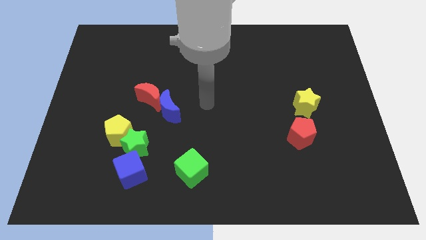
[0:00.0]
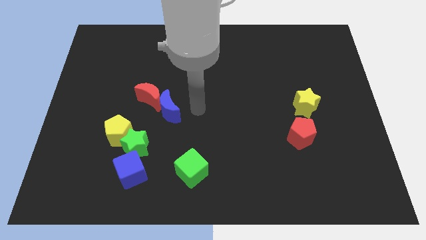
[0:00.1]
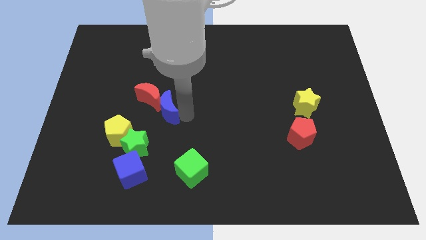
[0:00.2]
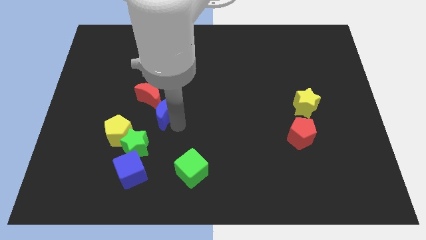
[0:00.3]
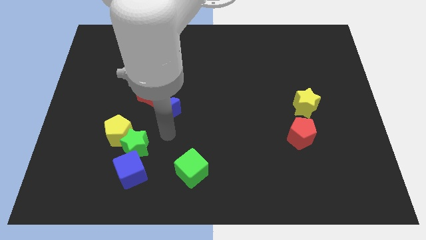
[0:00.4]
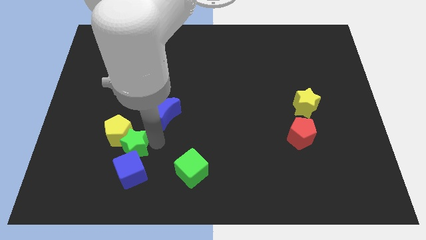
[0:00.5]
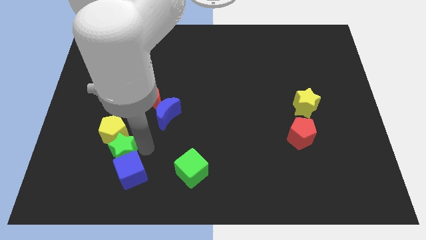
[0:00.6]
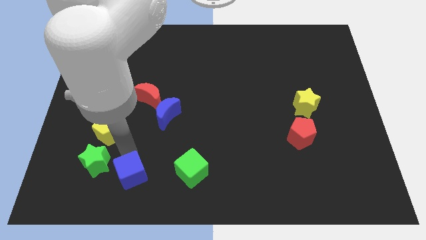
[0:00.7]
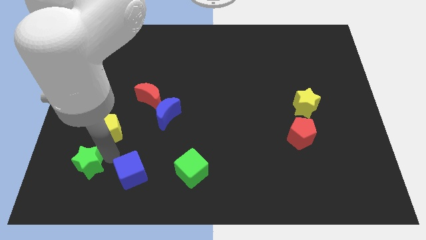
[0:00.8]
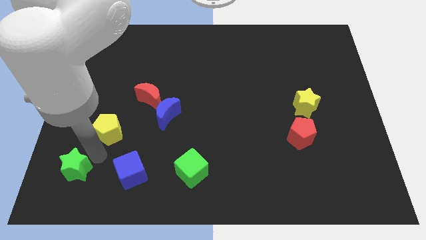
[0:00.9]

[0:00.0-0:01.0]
separate the yellow pentagon from the green star

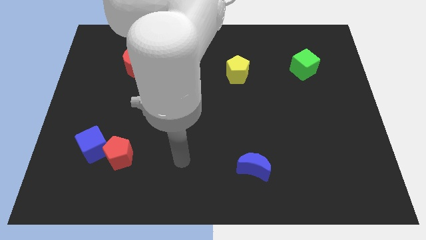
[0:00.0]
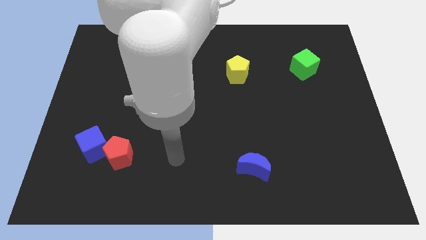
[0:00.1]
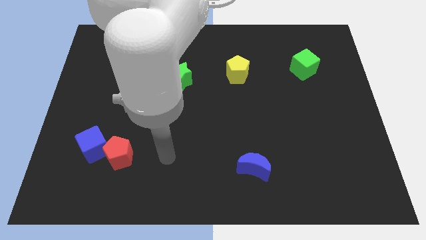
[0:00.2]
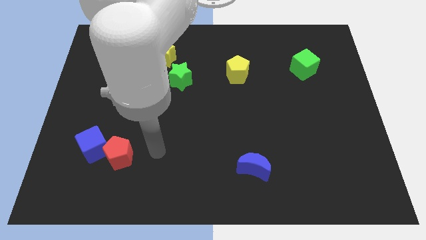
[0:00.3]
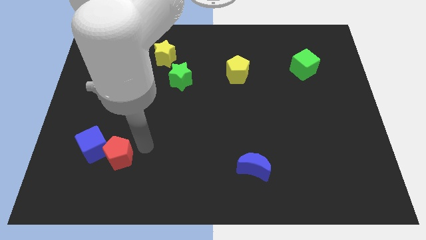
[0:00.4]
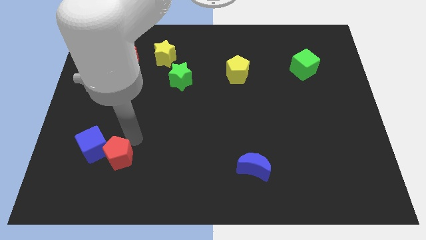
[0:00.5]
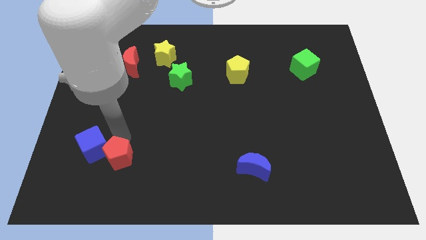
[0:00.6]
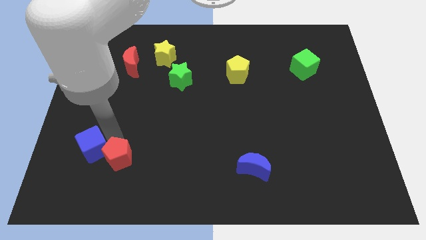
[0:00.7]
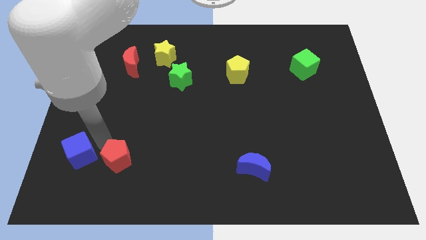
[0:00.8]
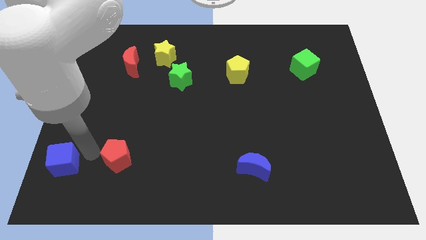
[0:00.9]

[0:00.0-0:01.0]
move the red pentagon away from the blue cube

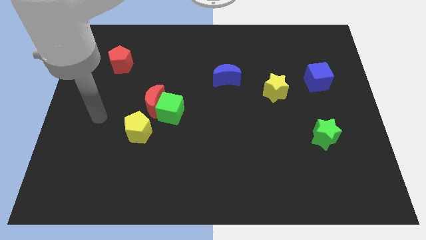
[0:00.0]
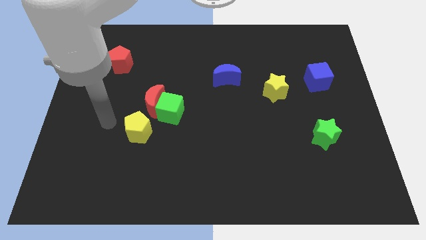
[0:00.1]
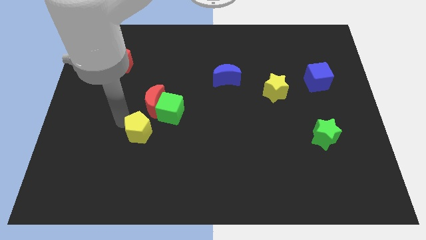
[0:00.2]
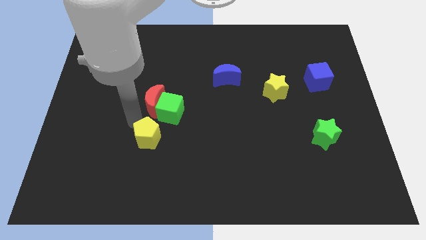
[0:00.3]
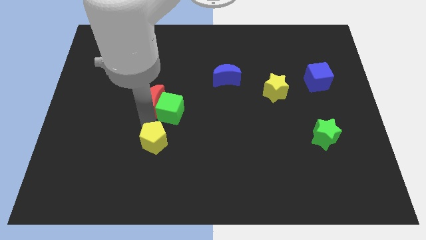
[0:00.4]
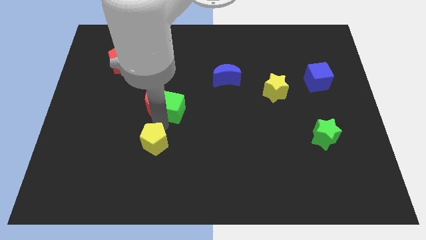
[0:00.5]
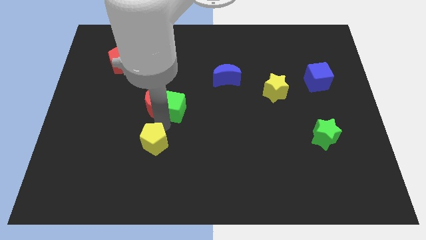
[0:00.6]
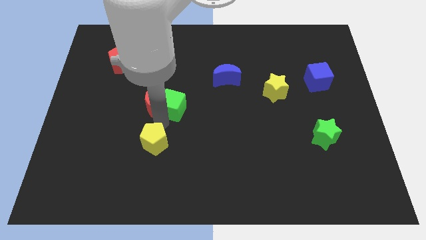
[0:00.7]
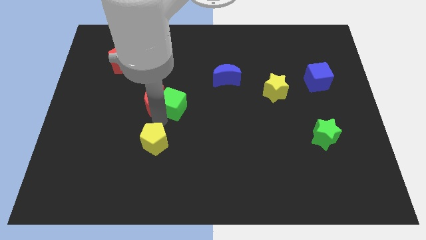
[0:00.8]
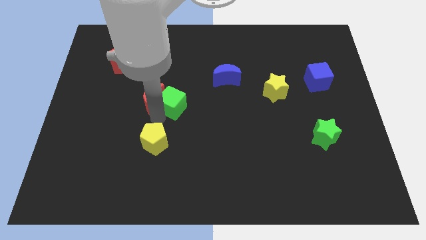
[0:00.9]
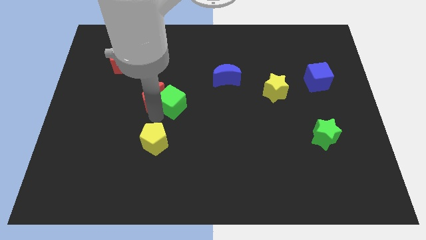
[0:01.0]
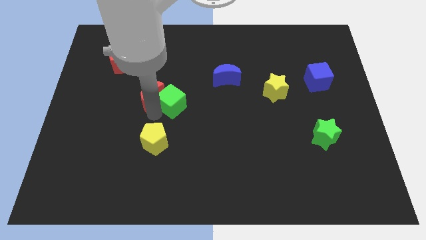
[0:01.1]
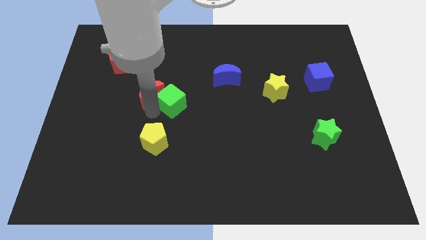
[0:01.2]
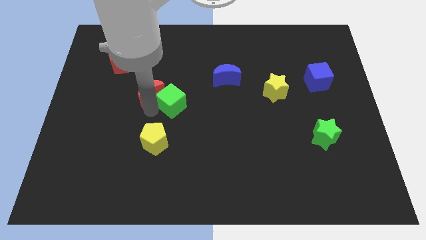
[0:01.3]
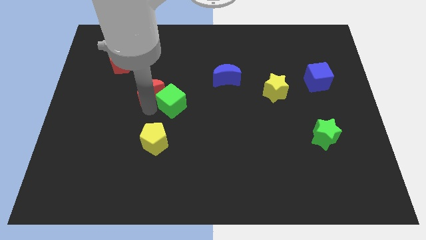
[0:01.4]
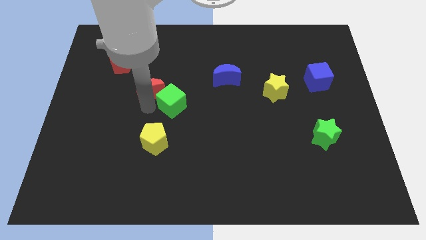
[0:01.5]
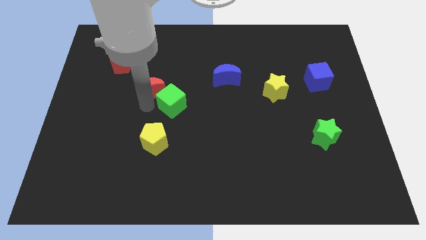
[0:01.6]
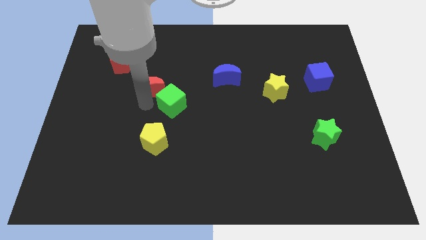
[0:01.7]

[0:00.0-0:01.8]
pull the red moon apart from the green cube and yellow pentagon

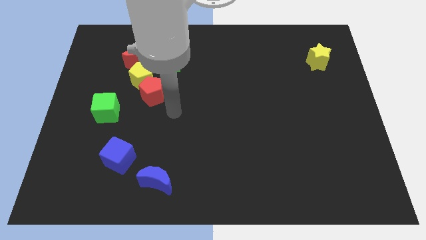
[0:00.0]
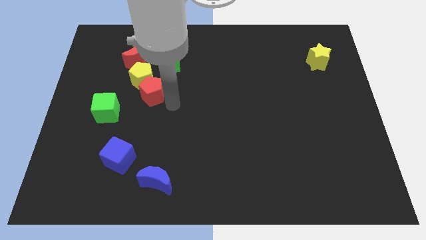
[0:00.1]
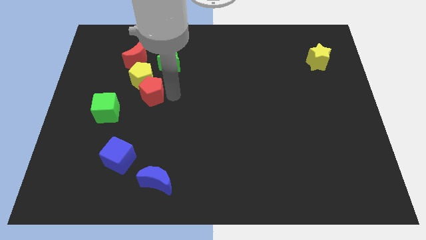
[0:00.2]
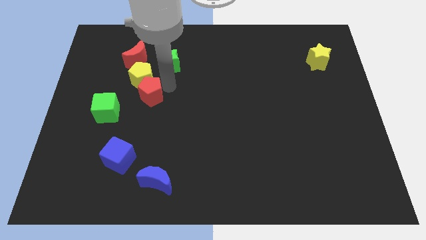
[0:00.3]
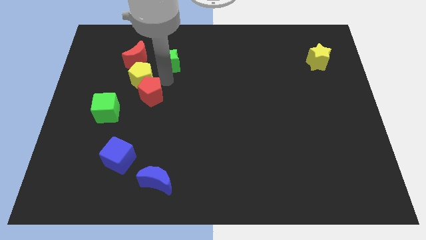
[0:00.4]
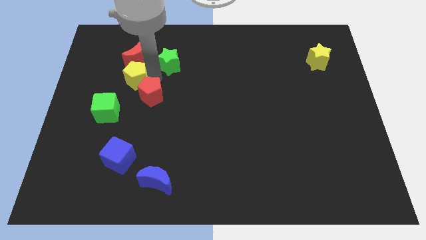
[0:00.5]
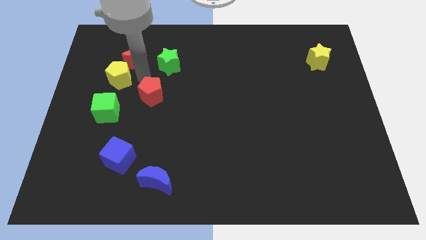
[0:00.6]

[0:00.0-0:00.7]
move the red pentagon away from the yellow pentagon

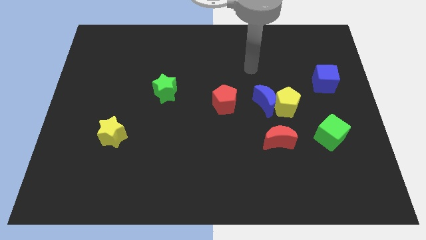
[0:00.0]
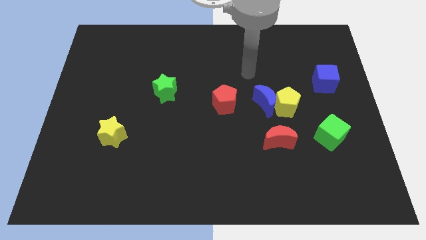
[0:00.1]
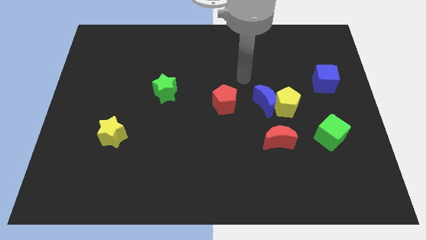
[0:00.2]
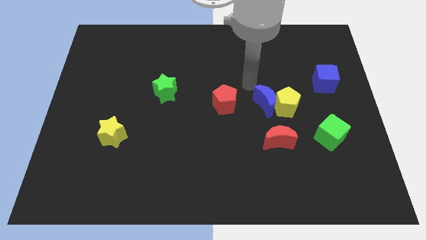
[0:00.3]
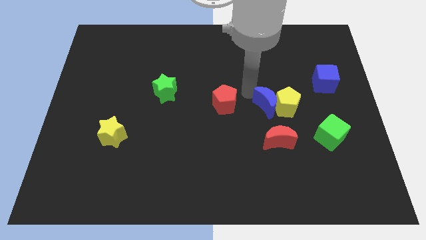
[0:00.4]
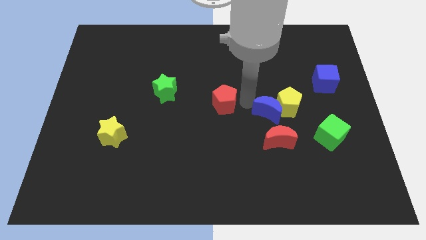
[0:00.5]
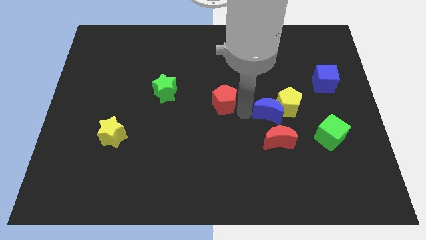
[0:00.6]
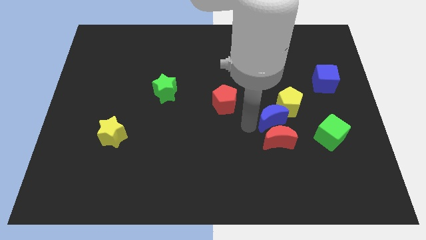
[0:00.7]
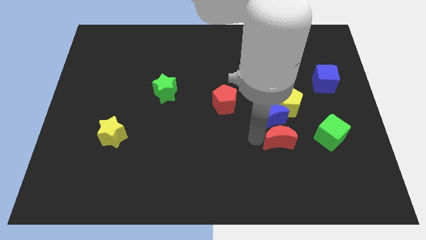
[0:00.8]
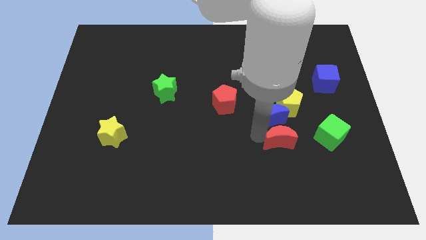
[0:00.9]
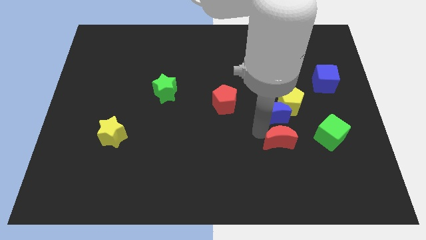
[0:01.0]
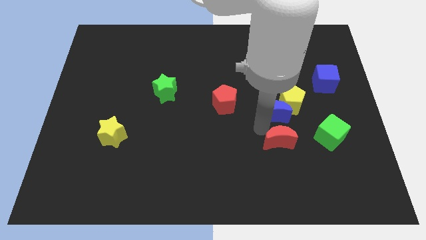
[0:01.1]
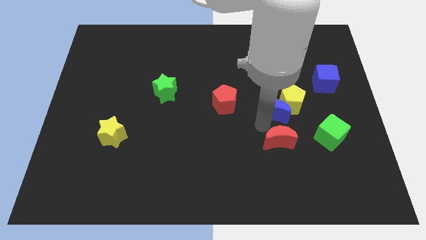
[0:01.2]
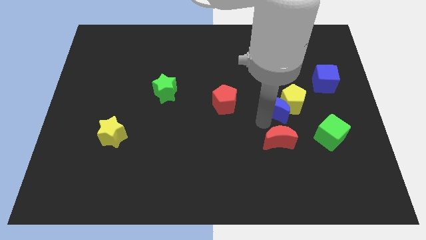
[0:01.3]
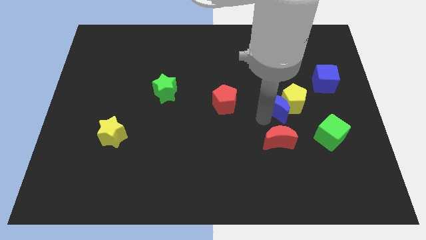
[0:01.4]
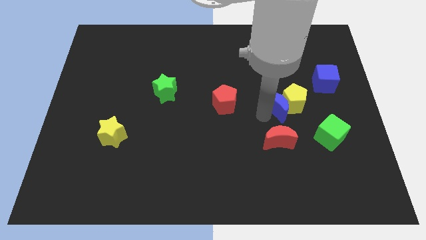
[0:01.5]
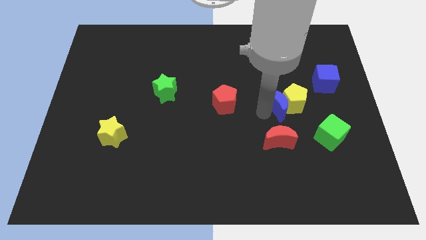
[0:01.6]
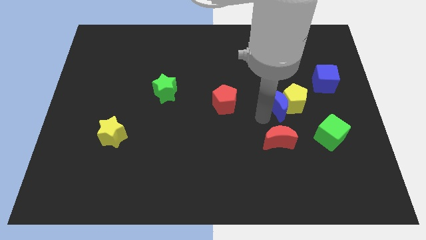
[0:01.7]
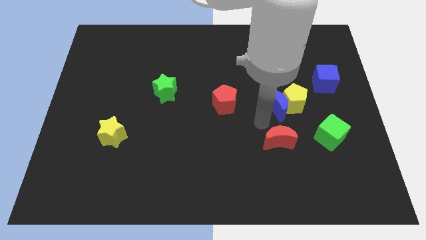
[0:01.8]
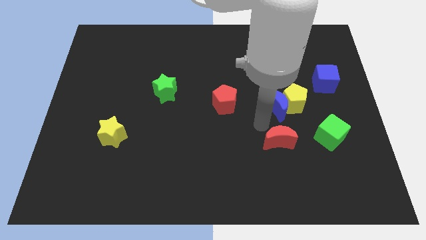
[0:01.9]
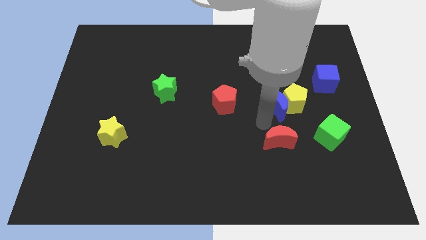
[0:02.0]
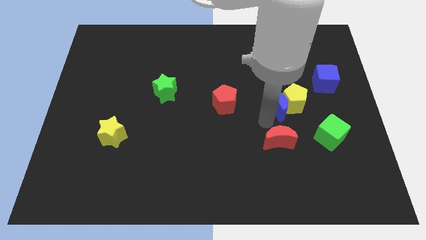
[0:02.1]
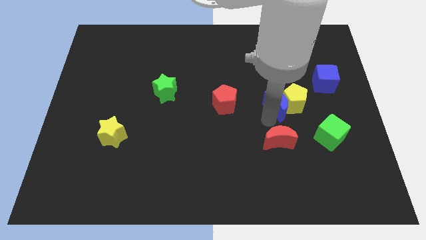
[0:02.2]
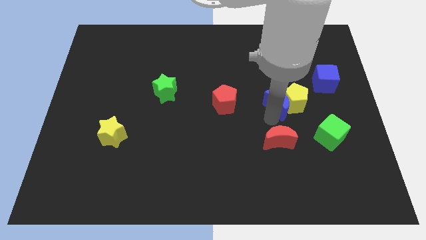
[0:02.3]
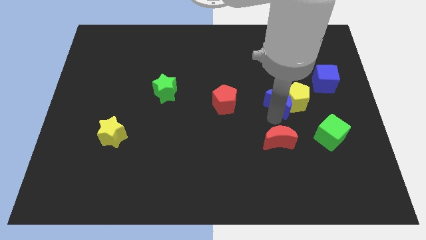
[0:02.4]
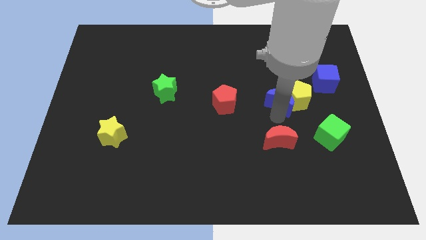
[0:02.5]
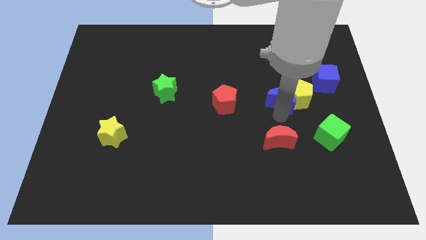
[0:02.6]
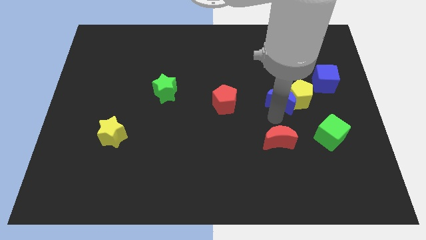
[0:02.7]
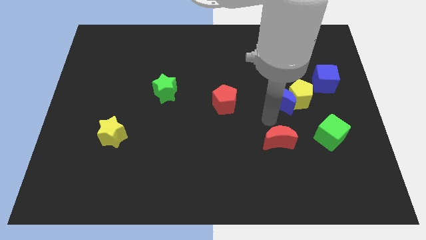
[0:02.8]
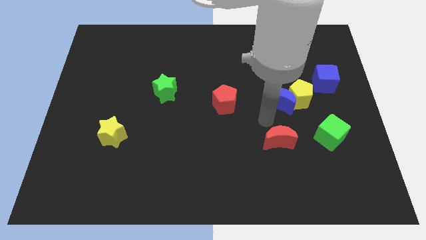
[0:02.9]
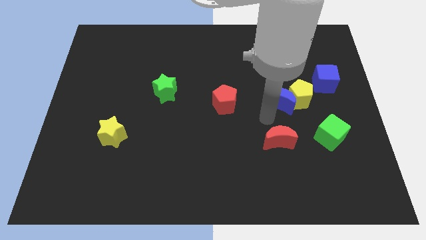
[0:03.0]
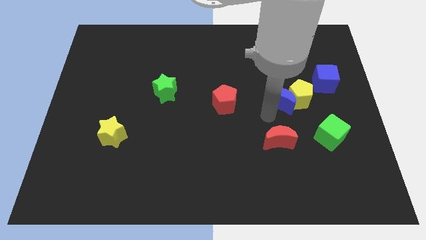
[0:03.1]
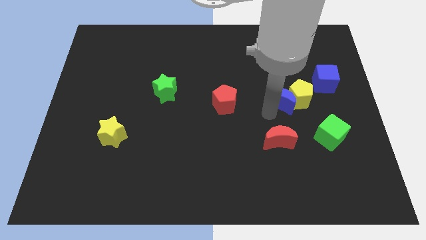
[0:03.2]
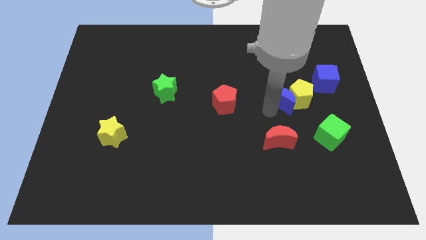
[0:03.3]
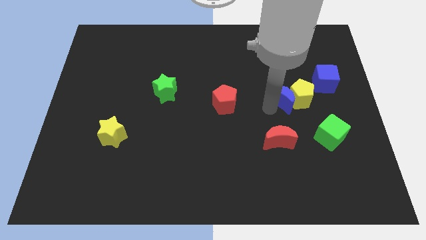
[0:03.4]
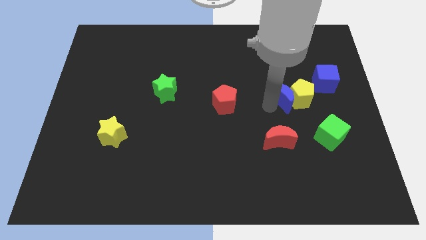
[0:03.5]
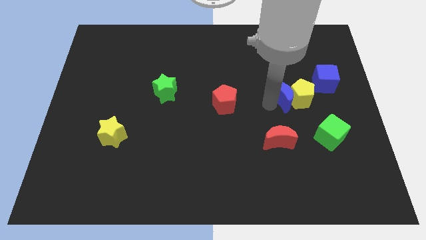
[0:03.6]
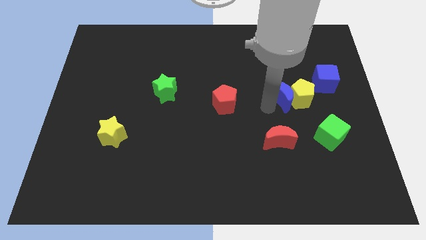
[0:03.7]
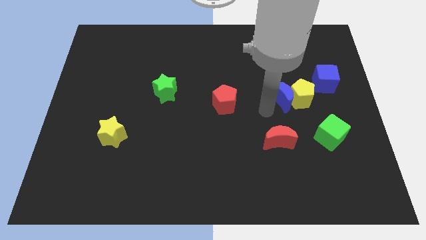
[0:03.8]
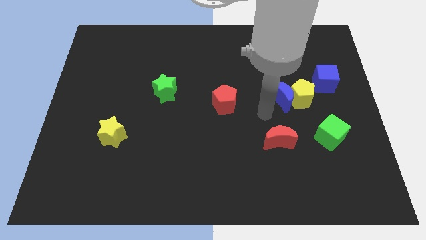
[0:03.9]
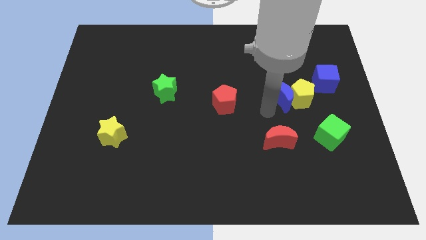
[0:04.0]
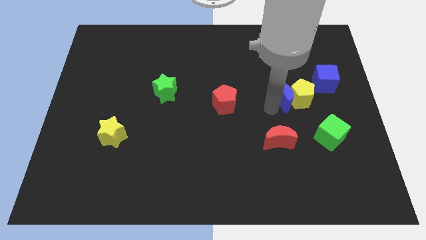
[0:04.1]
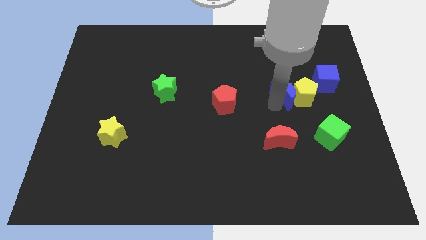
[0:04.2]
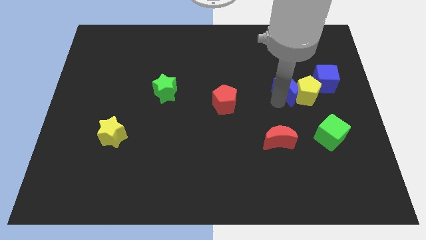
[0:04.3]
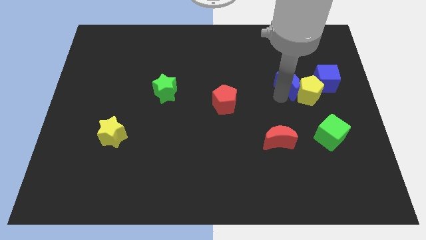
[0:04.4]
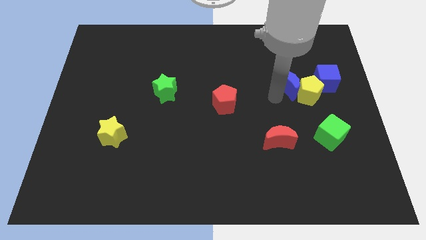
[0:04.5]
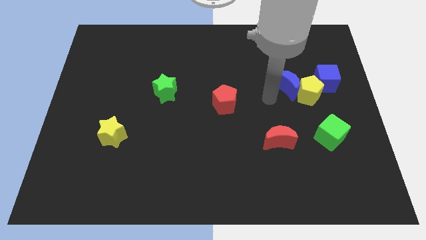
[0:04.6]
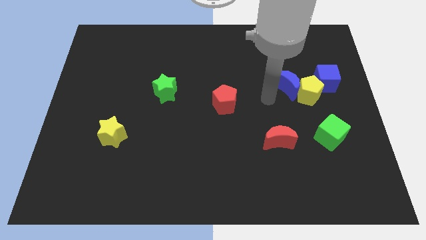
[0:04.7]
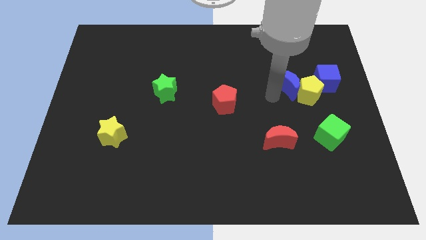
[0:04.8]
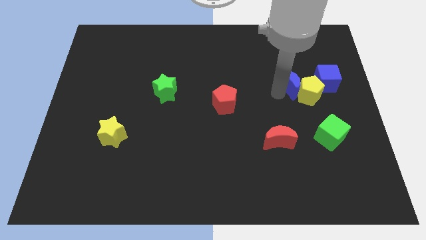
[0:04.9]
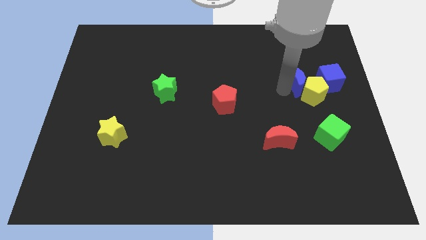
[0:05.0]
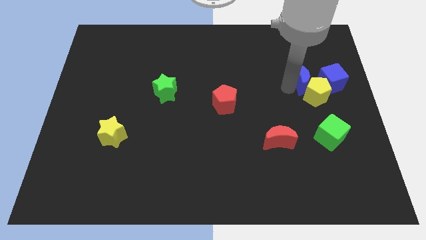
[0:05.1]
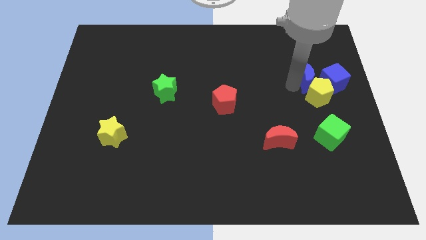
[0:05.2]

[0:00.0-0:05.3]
separate the blue moon from the yellow pentagon and red pentagon
